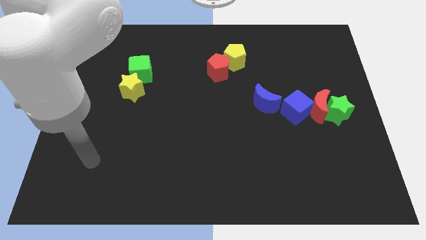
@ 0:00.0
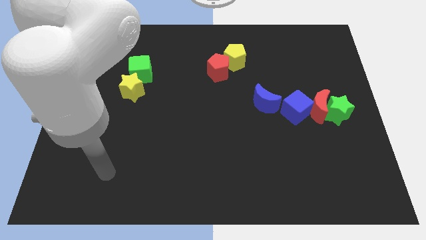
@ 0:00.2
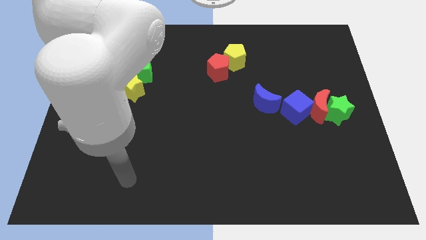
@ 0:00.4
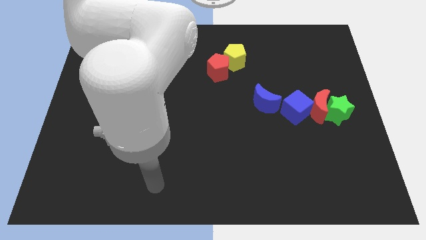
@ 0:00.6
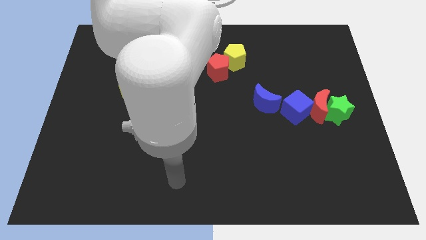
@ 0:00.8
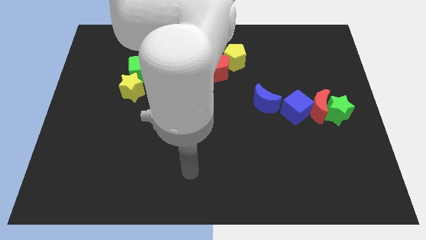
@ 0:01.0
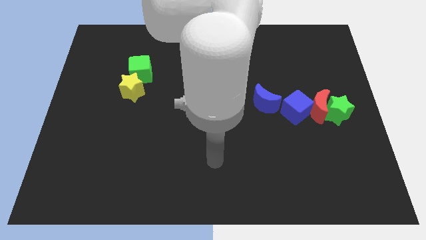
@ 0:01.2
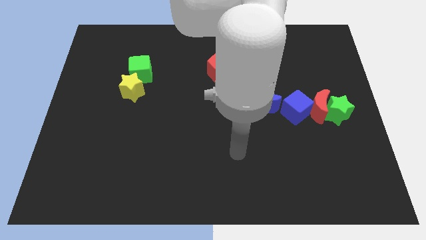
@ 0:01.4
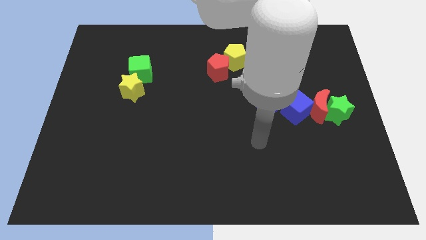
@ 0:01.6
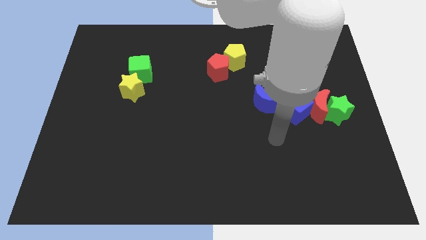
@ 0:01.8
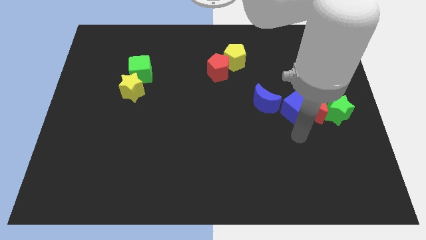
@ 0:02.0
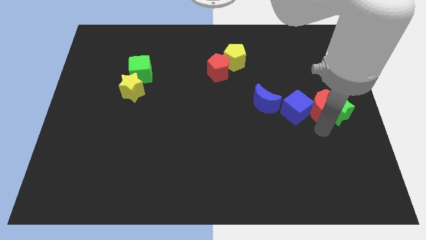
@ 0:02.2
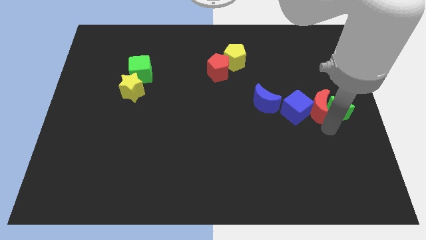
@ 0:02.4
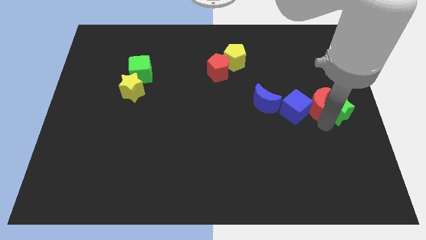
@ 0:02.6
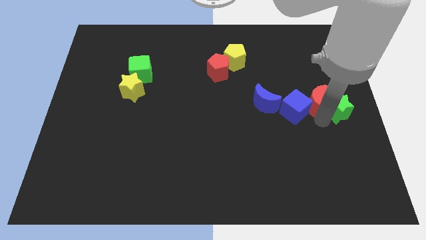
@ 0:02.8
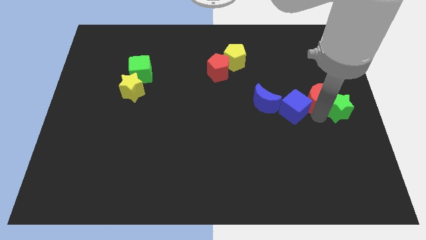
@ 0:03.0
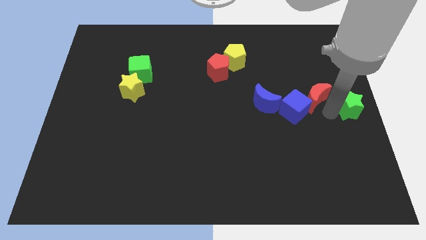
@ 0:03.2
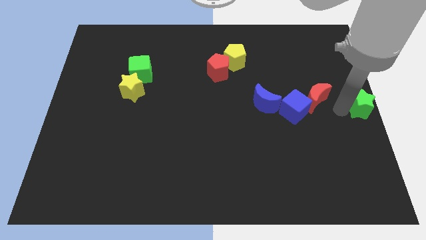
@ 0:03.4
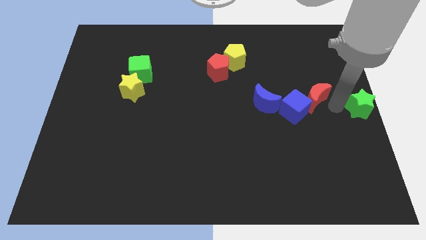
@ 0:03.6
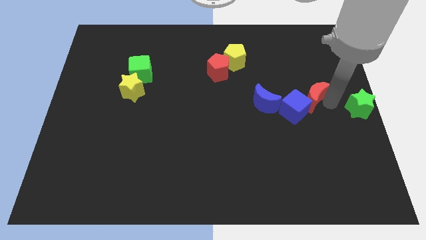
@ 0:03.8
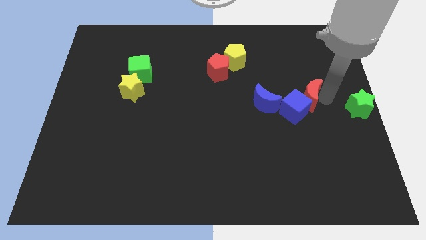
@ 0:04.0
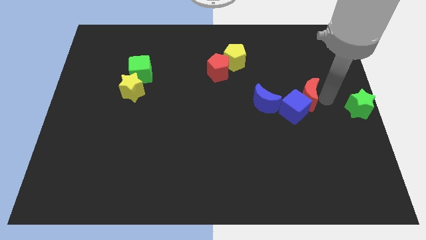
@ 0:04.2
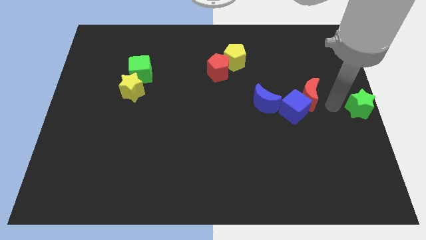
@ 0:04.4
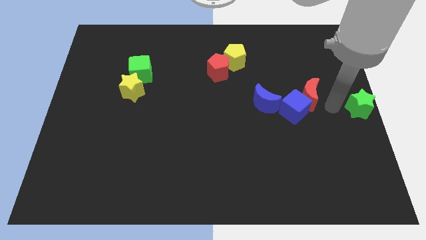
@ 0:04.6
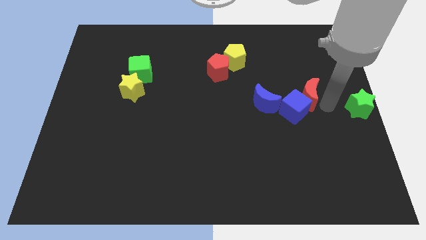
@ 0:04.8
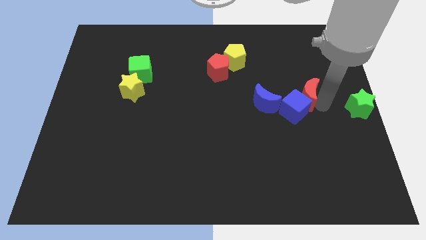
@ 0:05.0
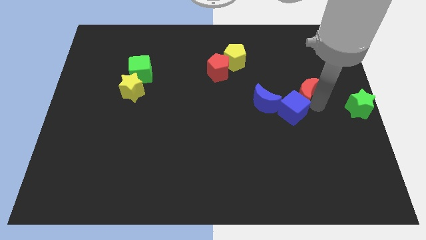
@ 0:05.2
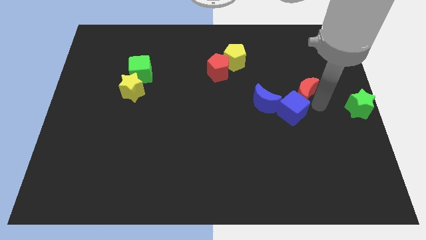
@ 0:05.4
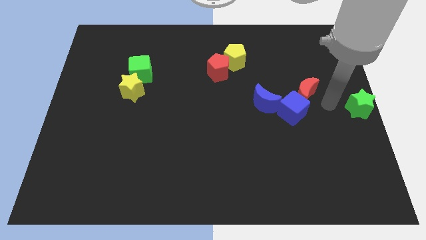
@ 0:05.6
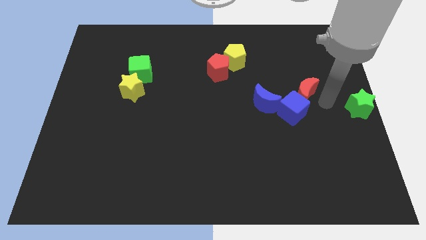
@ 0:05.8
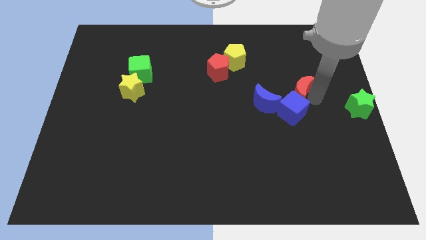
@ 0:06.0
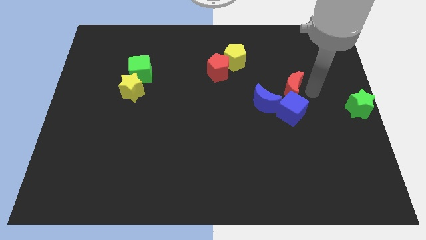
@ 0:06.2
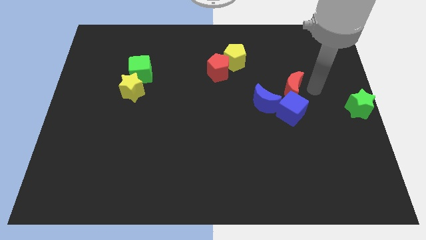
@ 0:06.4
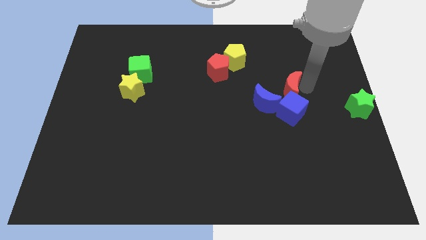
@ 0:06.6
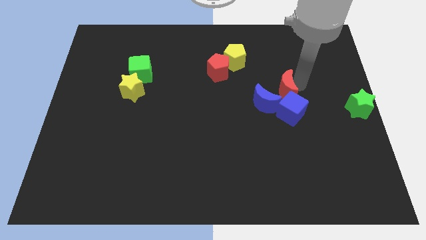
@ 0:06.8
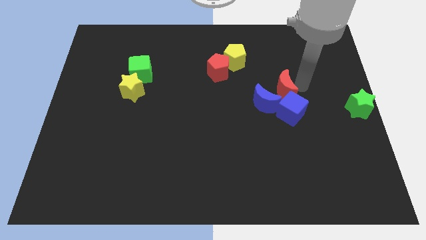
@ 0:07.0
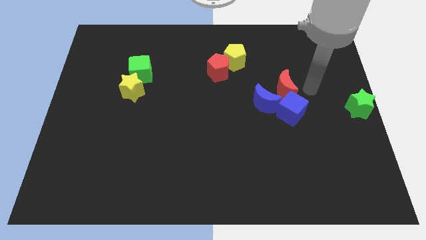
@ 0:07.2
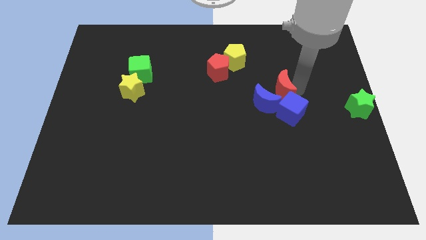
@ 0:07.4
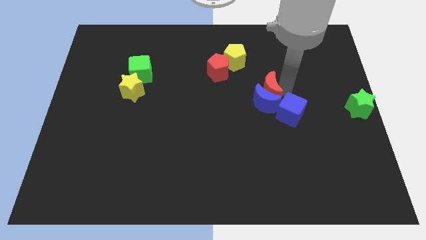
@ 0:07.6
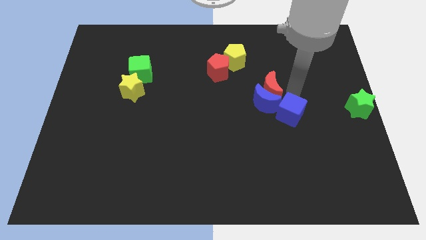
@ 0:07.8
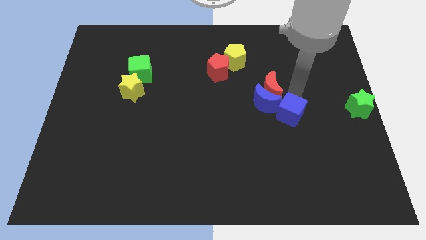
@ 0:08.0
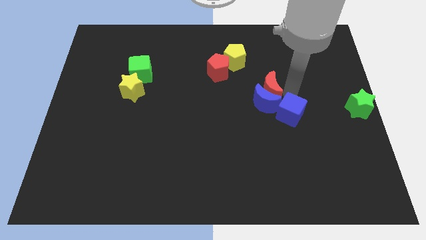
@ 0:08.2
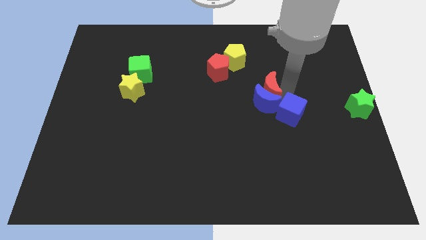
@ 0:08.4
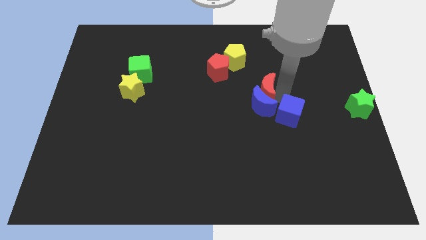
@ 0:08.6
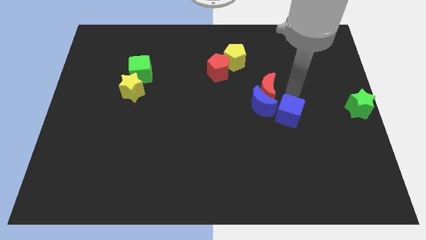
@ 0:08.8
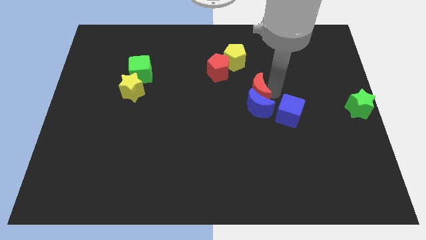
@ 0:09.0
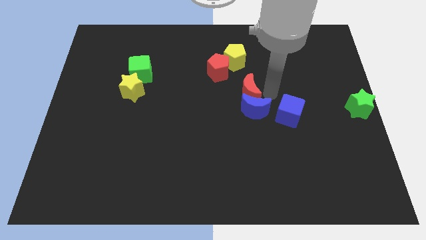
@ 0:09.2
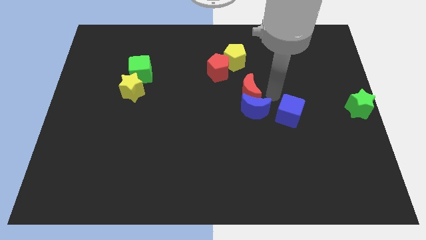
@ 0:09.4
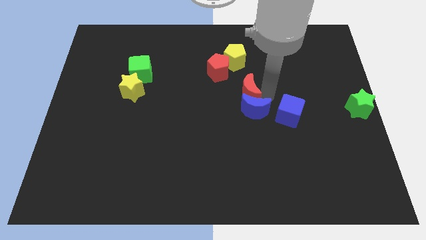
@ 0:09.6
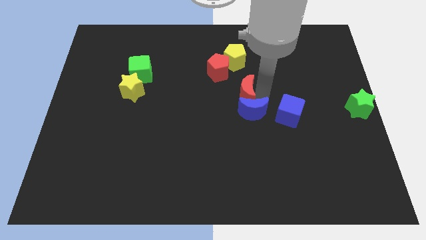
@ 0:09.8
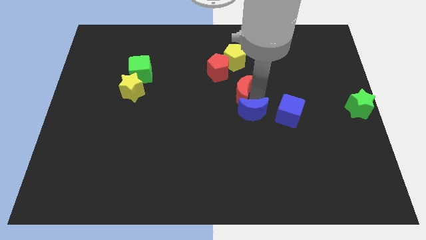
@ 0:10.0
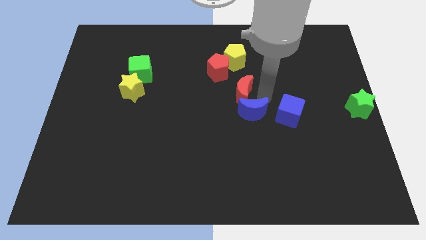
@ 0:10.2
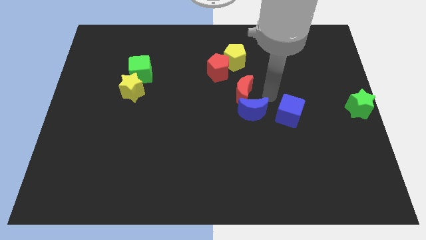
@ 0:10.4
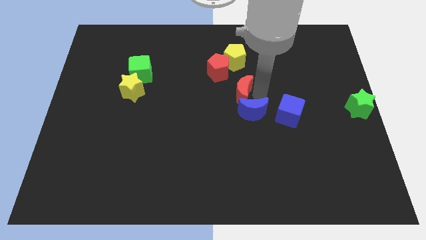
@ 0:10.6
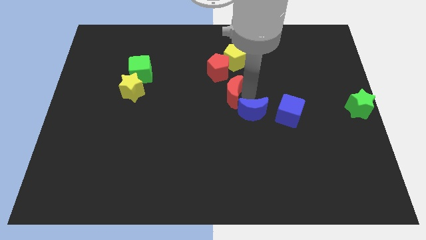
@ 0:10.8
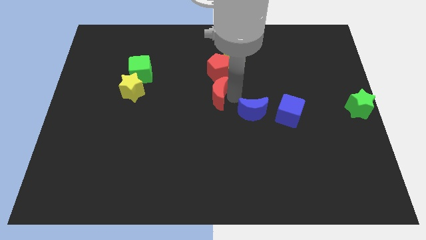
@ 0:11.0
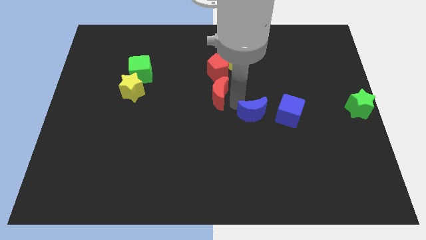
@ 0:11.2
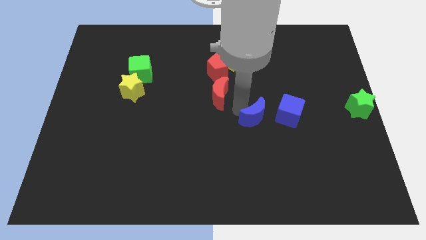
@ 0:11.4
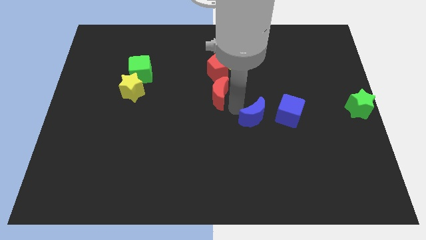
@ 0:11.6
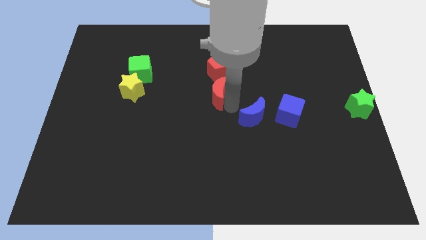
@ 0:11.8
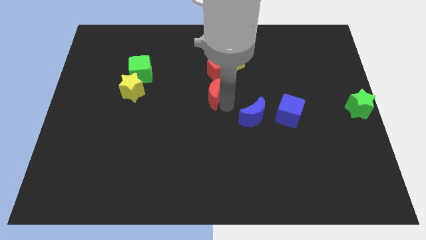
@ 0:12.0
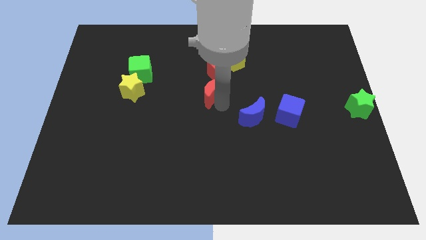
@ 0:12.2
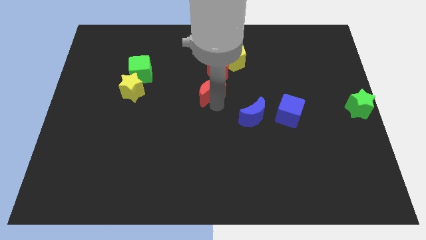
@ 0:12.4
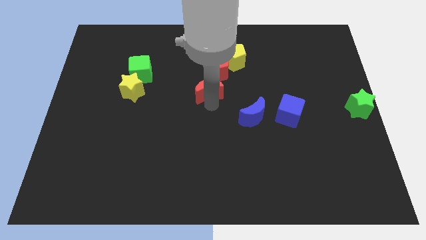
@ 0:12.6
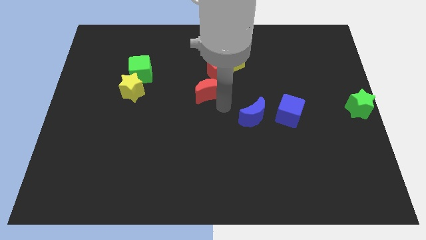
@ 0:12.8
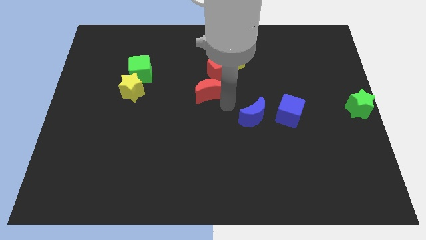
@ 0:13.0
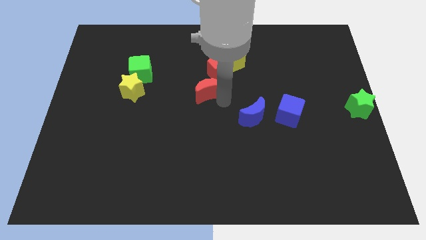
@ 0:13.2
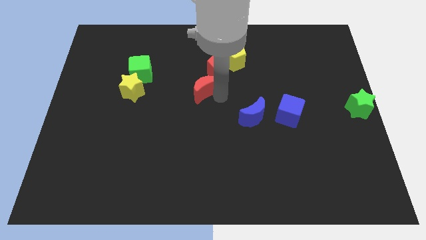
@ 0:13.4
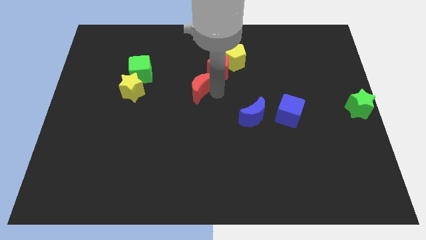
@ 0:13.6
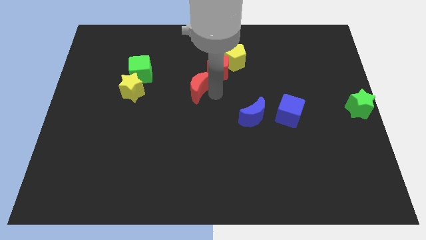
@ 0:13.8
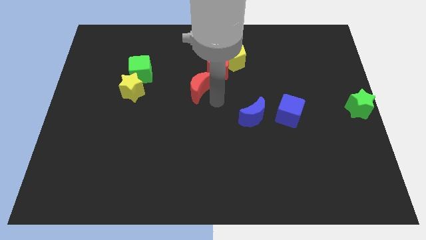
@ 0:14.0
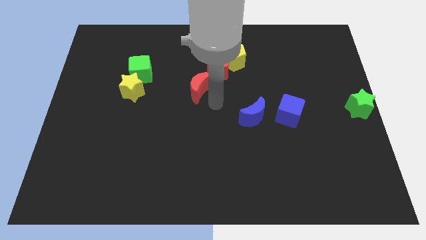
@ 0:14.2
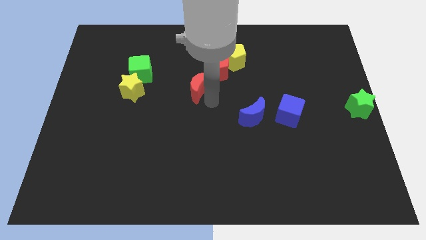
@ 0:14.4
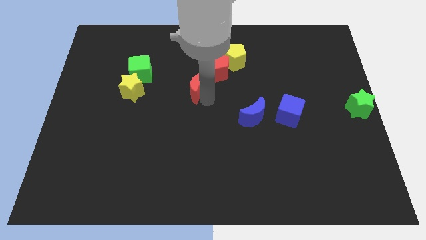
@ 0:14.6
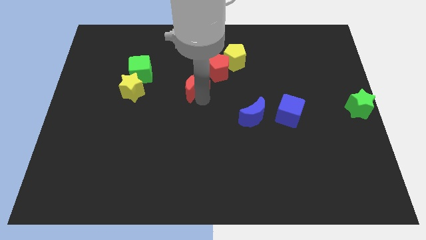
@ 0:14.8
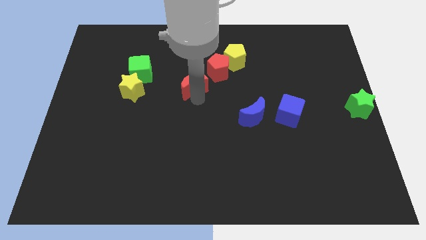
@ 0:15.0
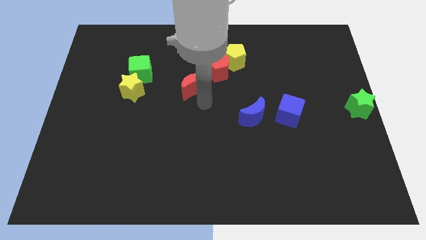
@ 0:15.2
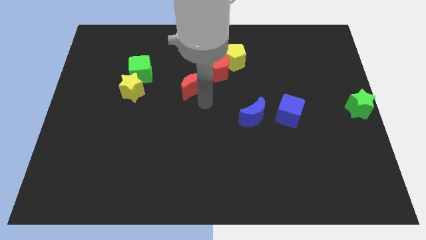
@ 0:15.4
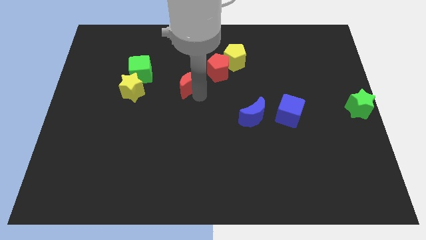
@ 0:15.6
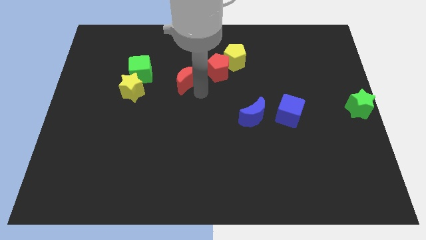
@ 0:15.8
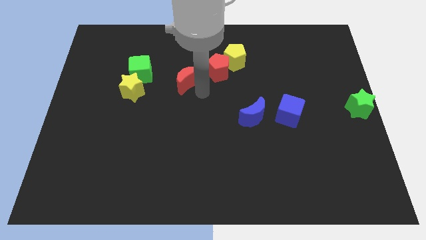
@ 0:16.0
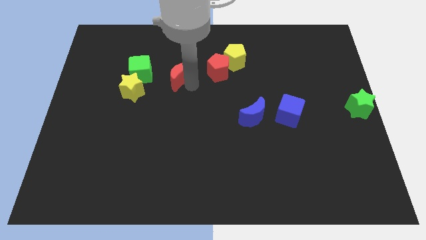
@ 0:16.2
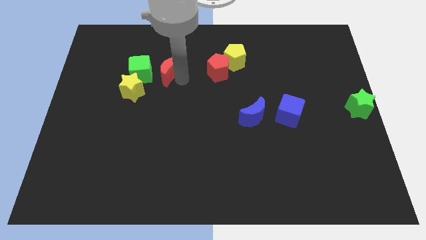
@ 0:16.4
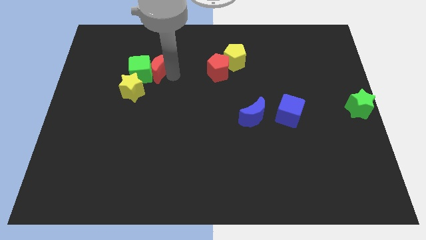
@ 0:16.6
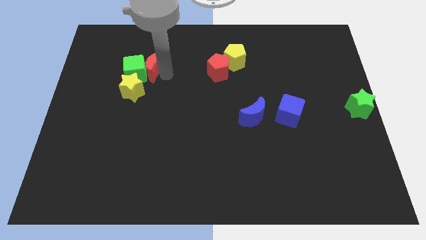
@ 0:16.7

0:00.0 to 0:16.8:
push the red moon to the top side of the yellow star

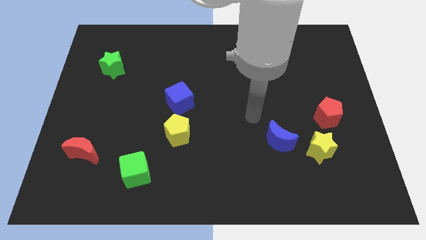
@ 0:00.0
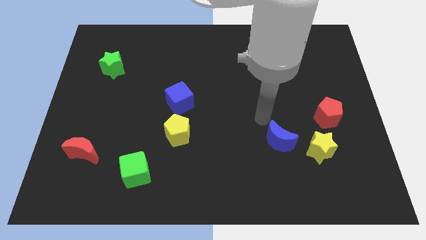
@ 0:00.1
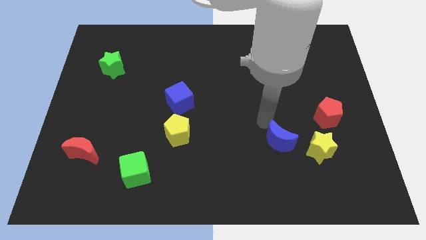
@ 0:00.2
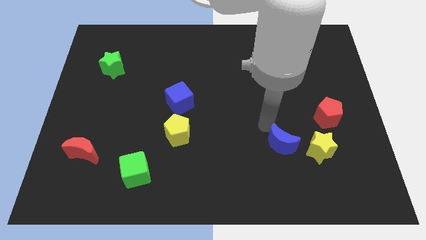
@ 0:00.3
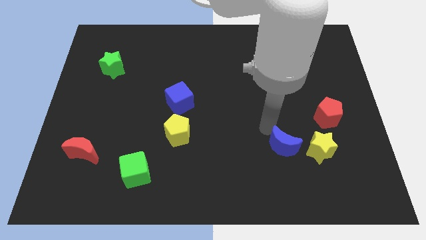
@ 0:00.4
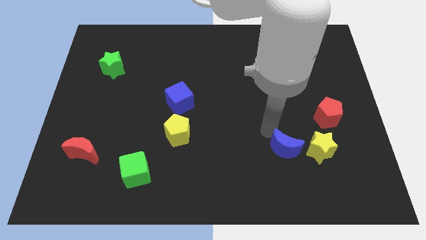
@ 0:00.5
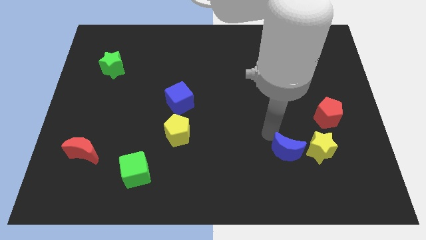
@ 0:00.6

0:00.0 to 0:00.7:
push the blue moon to the bottom left side of the yellow star
